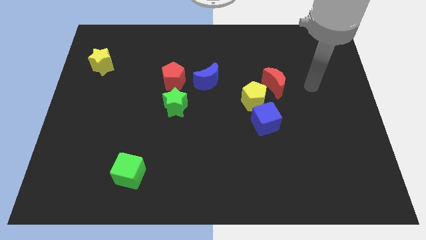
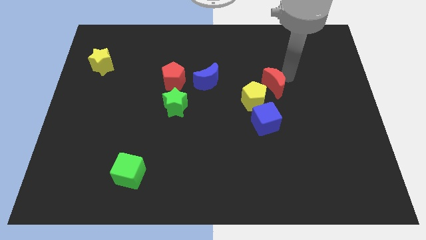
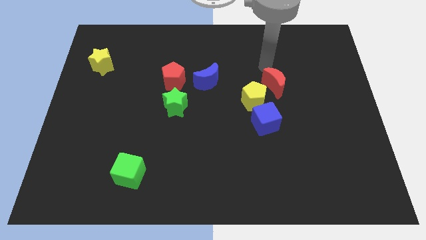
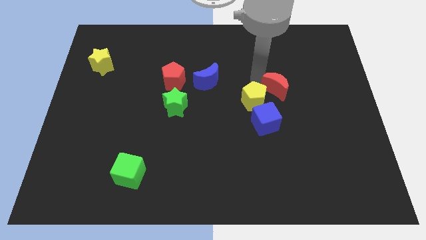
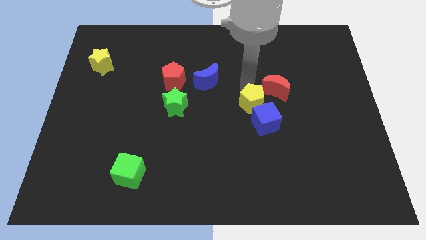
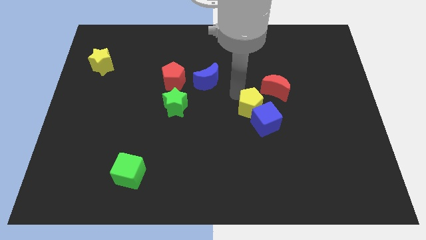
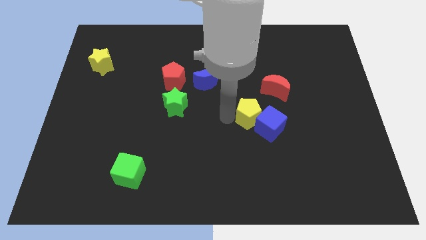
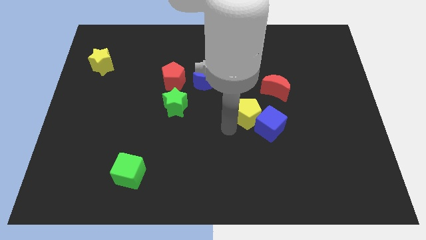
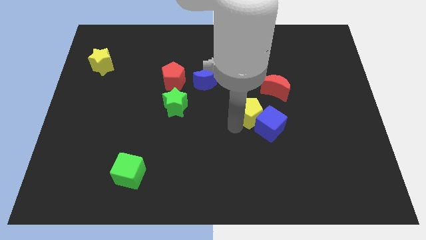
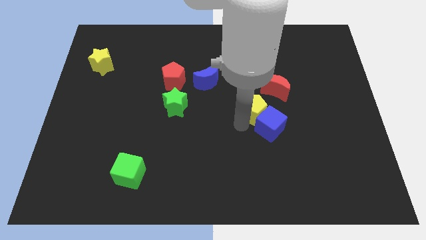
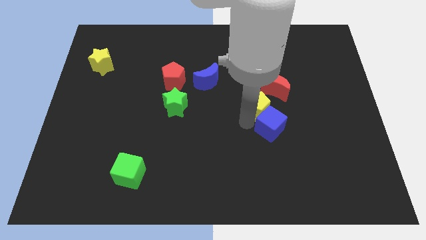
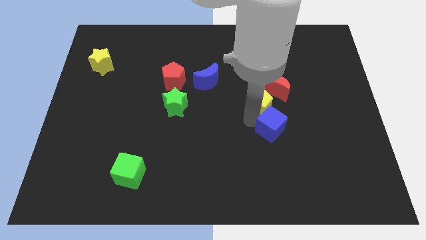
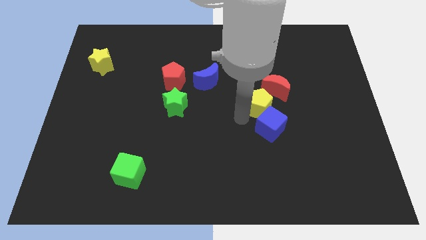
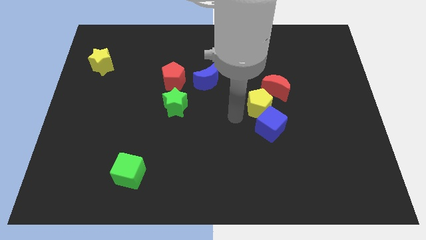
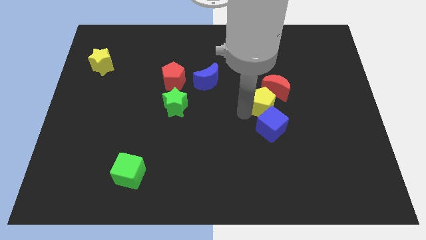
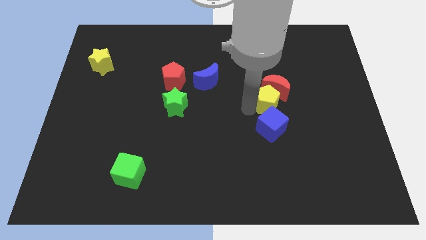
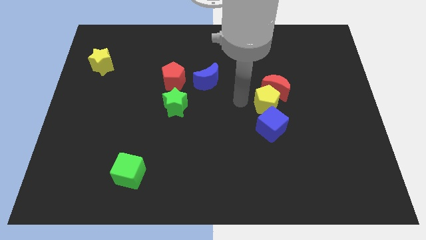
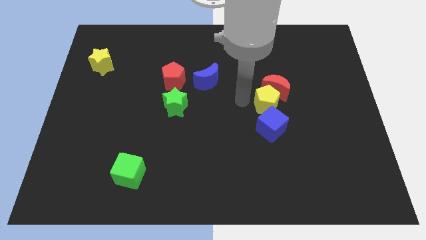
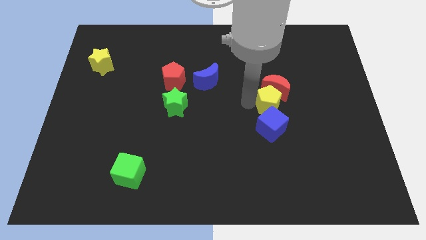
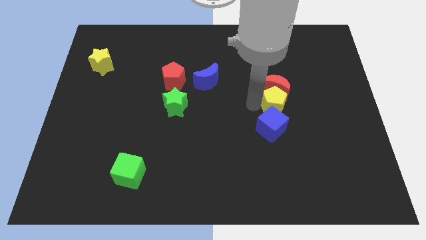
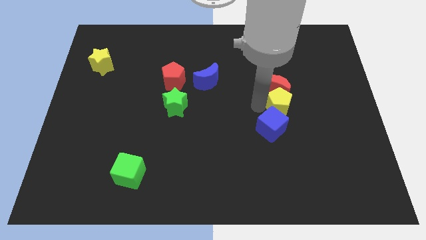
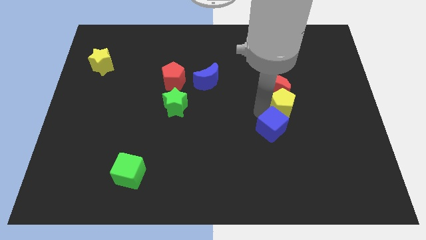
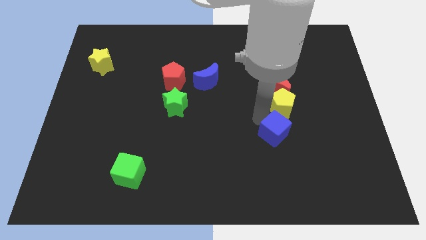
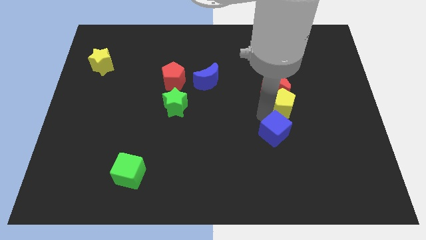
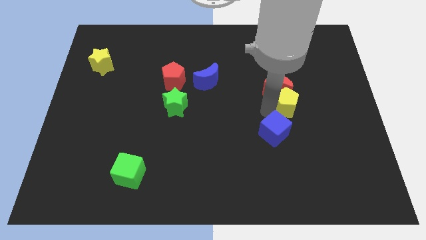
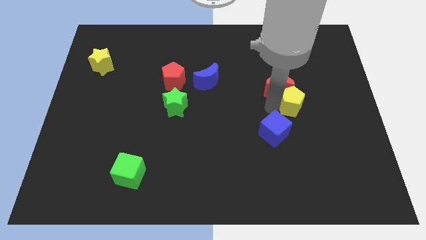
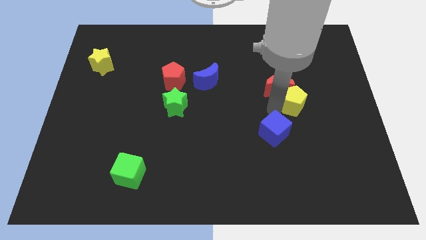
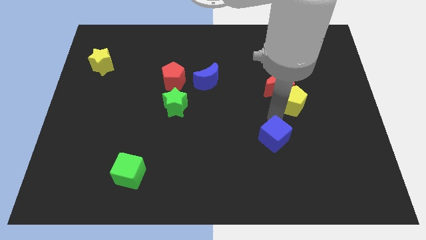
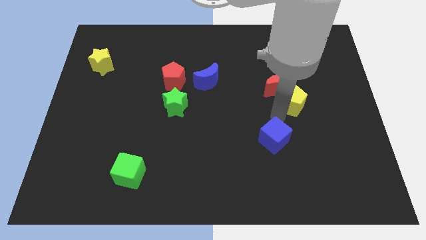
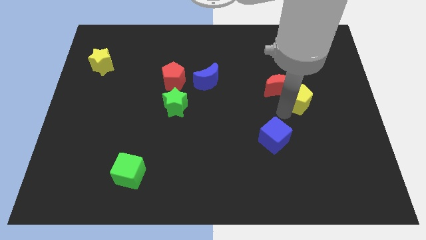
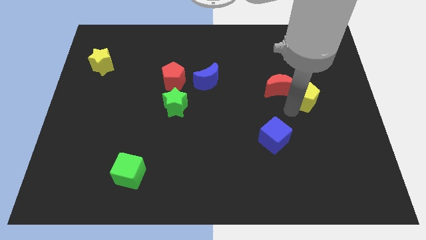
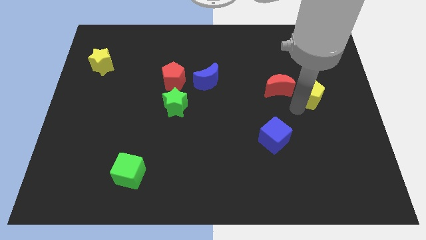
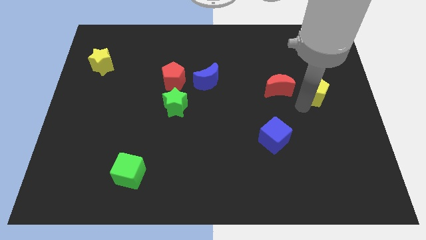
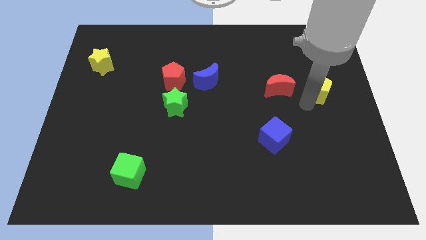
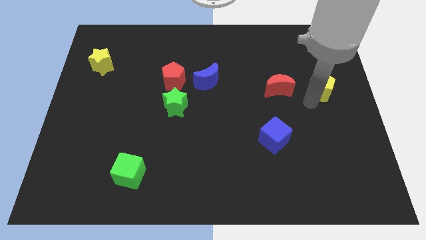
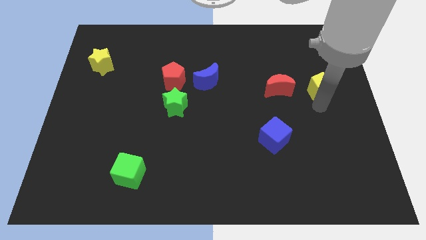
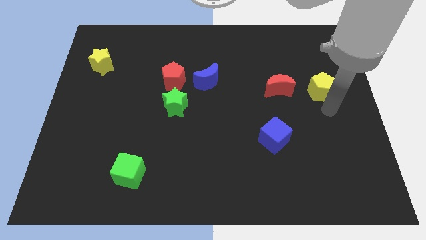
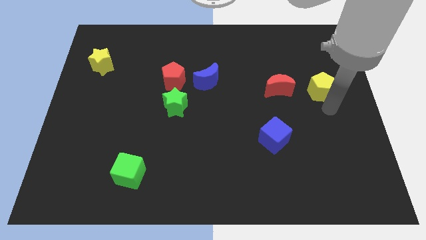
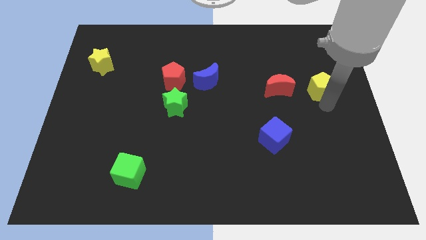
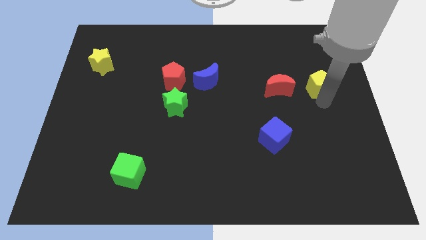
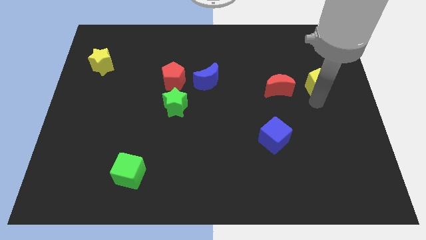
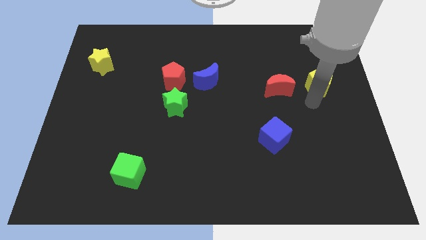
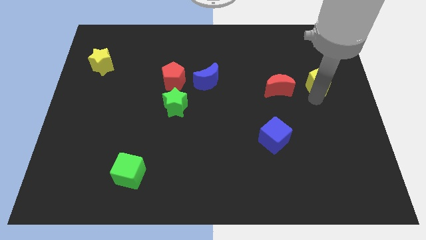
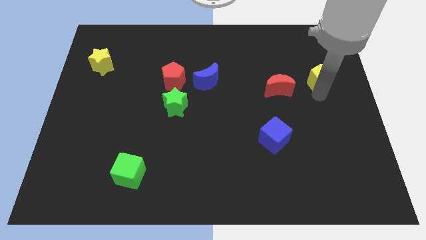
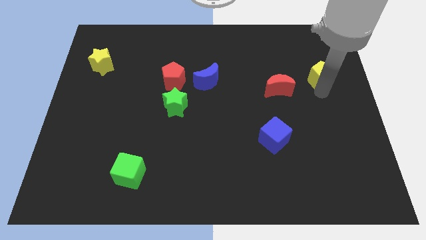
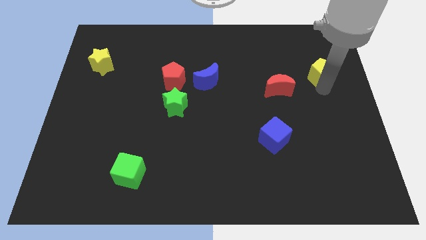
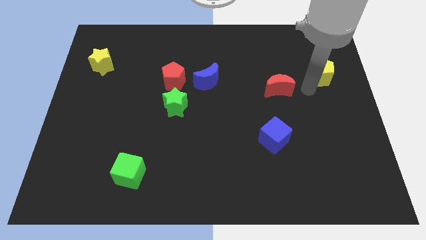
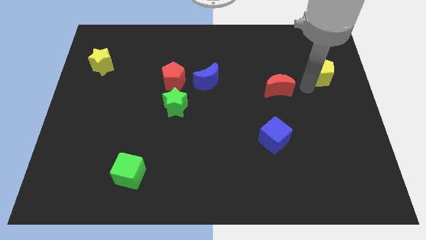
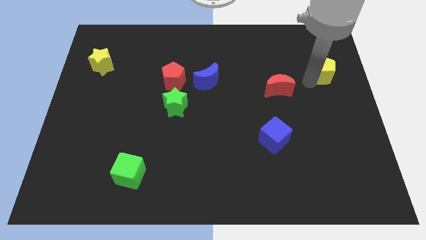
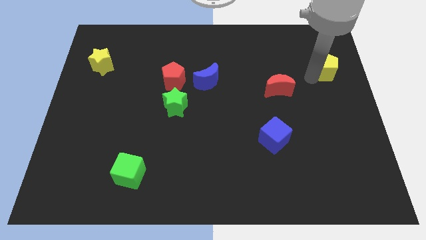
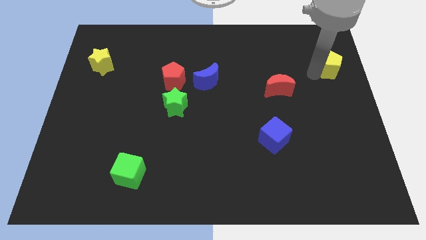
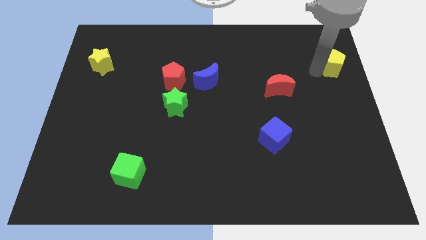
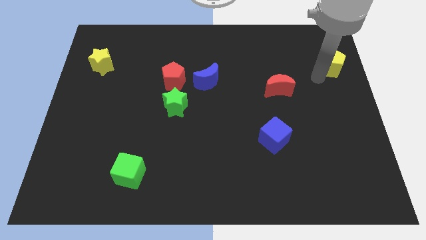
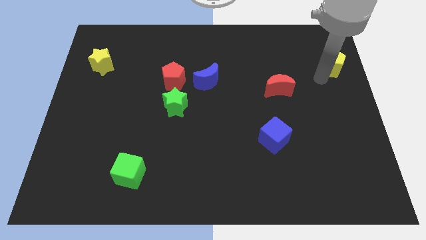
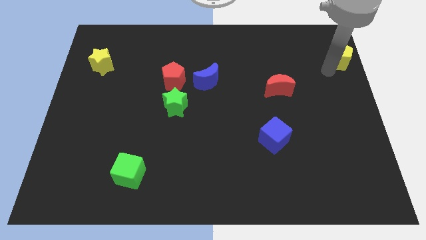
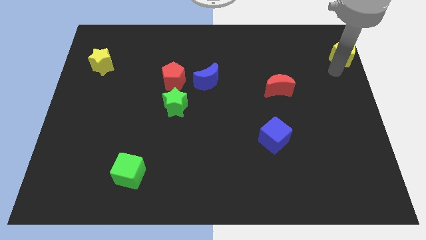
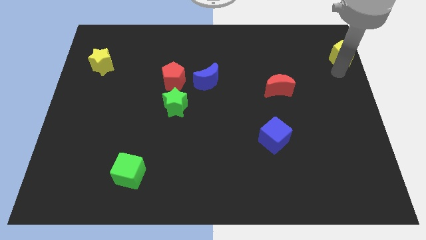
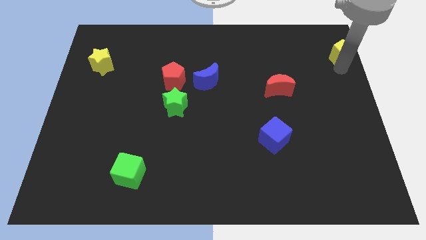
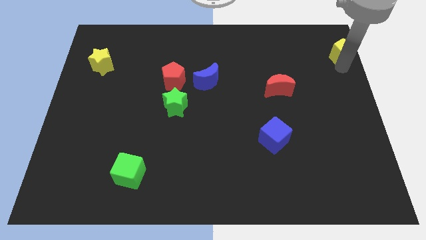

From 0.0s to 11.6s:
push the yellow pentagon to the top right corner
